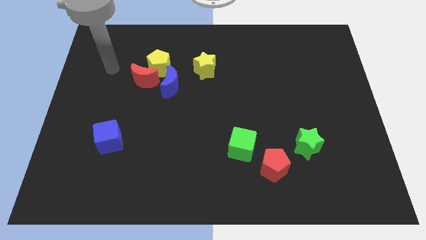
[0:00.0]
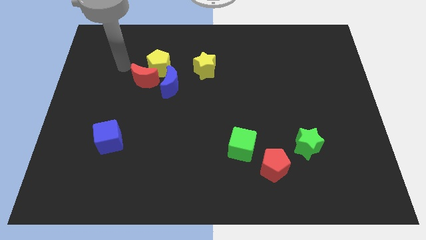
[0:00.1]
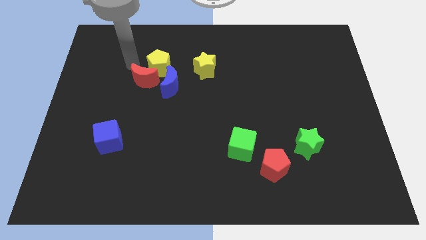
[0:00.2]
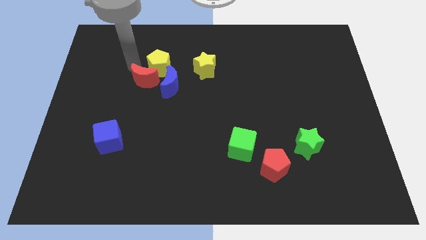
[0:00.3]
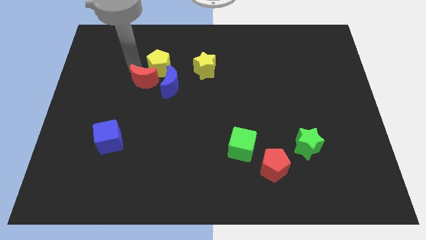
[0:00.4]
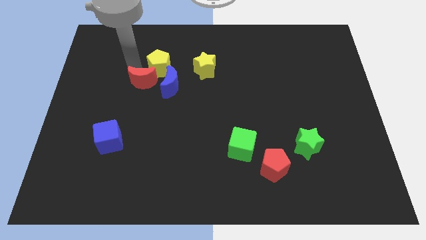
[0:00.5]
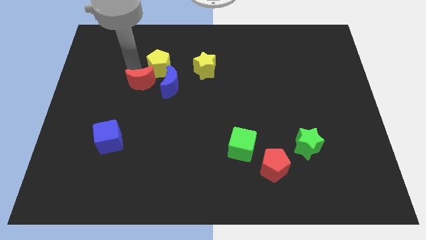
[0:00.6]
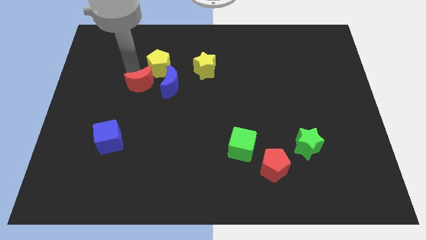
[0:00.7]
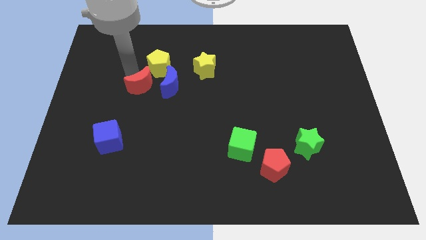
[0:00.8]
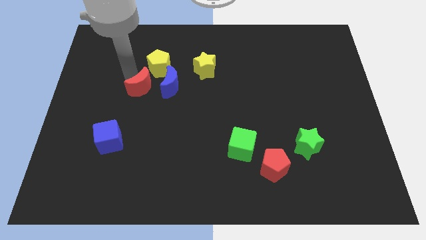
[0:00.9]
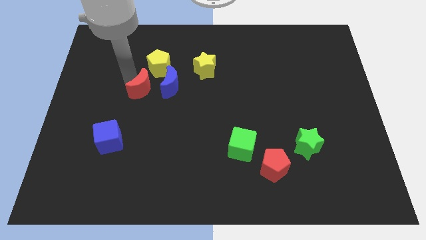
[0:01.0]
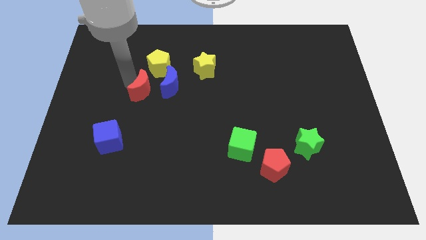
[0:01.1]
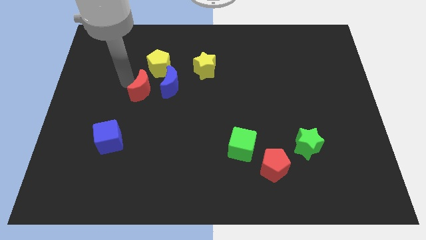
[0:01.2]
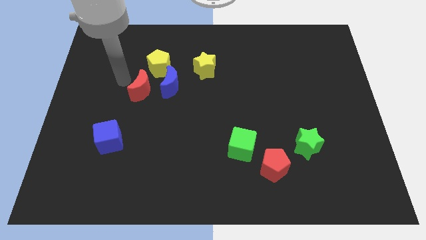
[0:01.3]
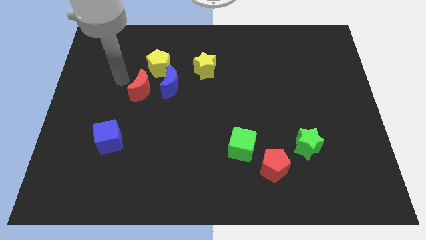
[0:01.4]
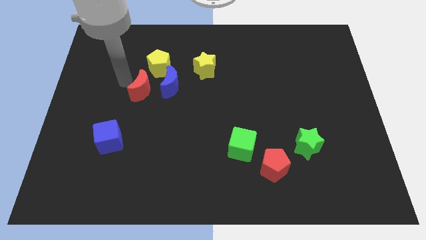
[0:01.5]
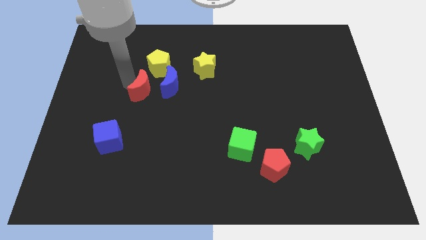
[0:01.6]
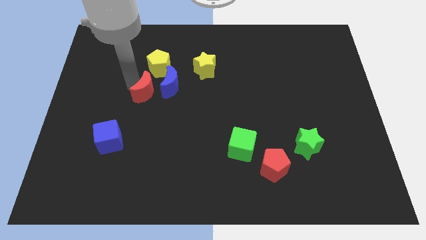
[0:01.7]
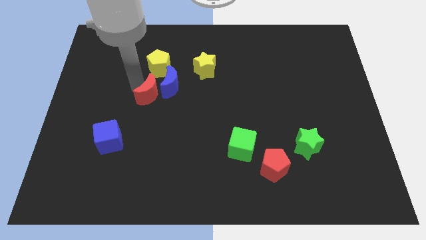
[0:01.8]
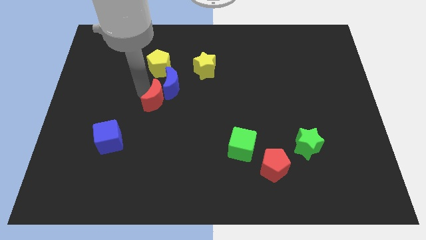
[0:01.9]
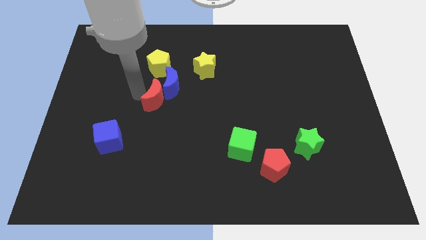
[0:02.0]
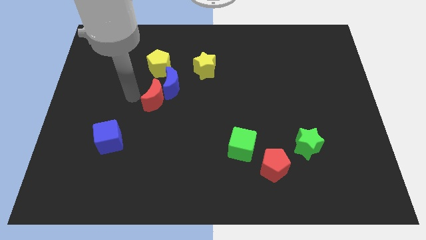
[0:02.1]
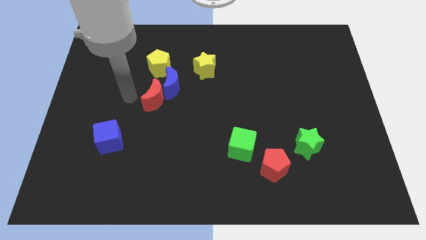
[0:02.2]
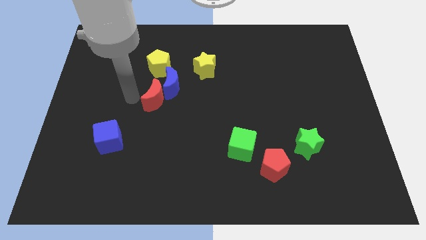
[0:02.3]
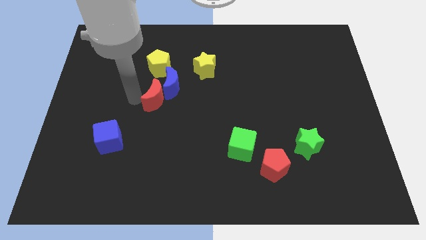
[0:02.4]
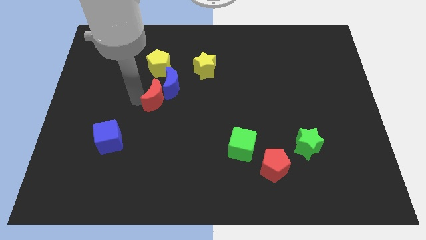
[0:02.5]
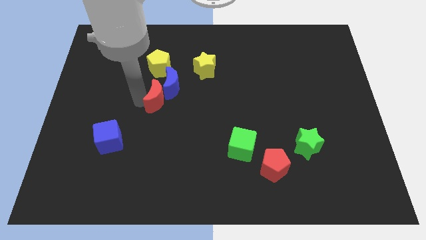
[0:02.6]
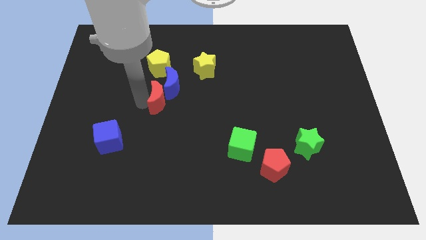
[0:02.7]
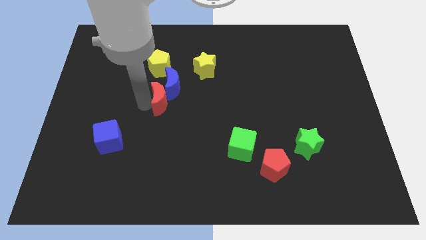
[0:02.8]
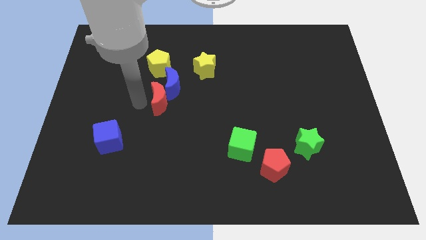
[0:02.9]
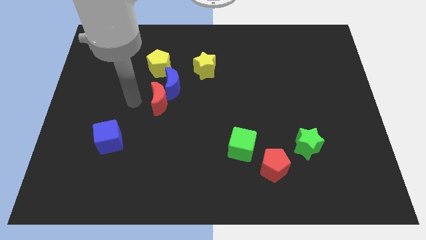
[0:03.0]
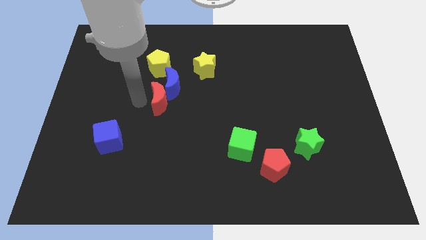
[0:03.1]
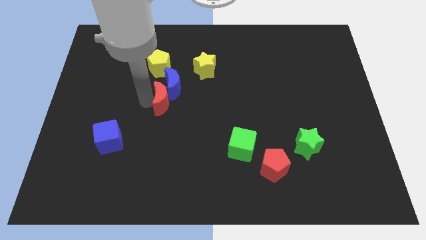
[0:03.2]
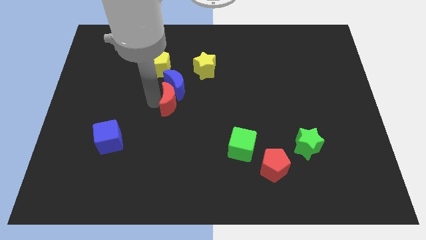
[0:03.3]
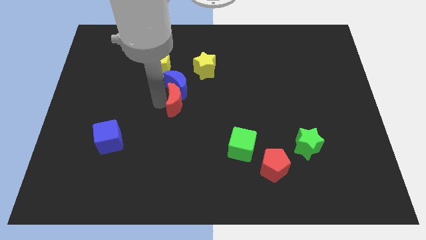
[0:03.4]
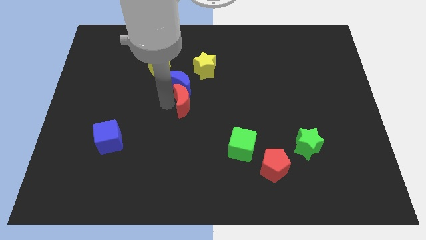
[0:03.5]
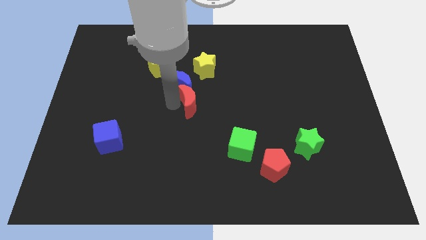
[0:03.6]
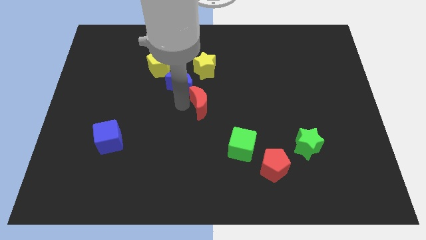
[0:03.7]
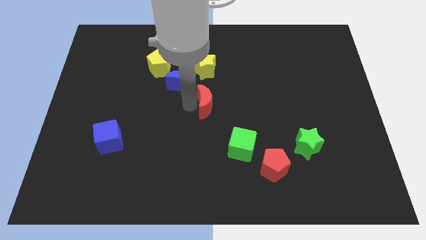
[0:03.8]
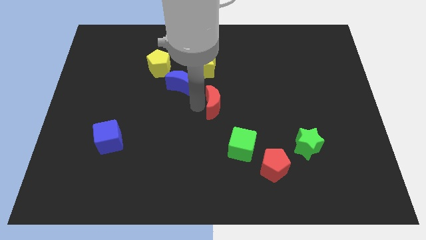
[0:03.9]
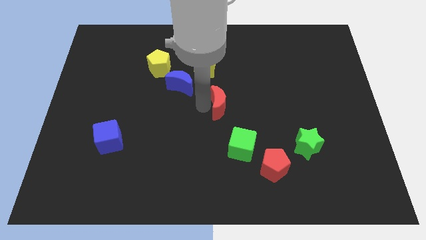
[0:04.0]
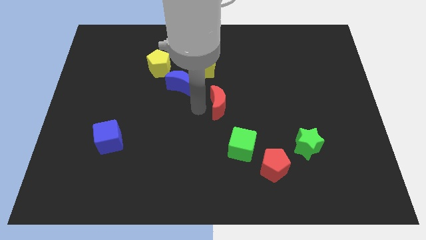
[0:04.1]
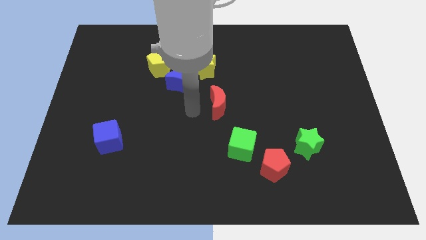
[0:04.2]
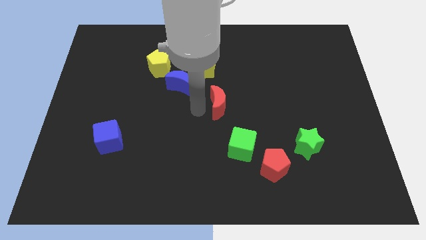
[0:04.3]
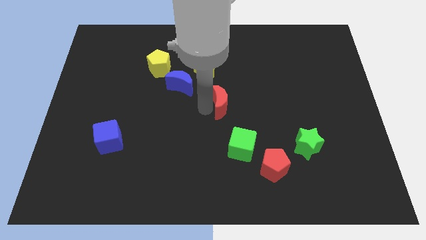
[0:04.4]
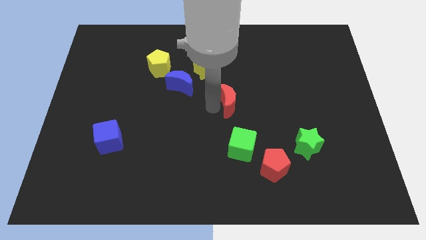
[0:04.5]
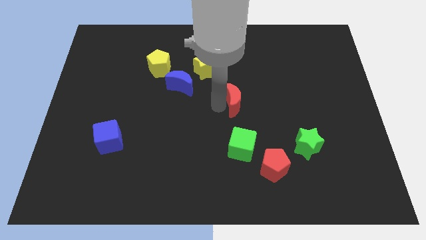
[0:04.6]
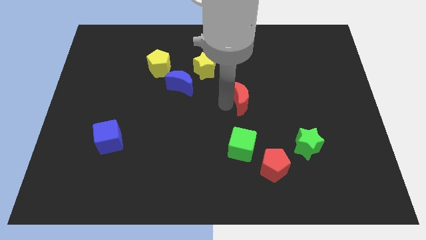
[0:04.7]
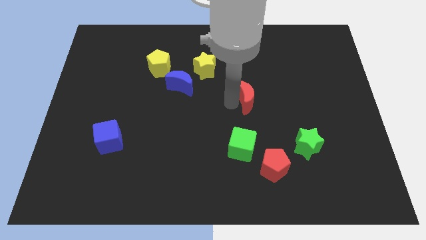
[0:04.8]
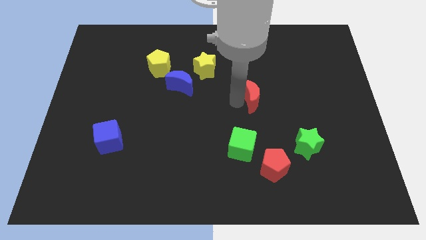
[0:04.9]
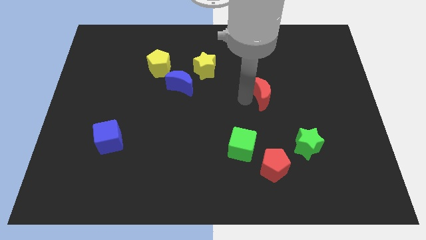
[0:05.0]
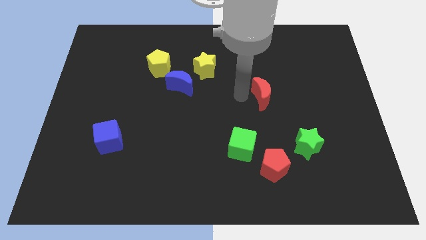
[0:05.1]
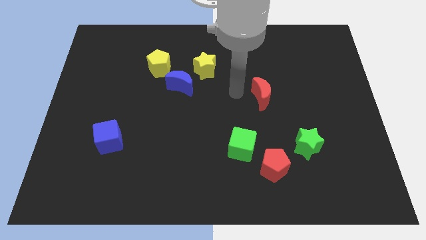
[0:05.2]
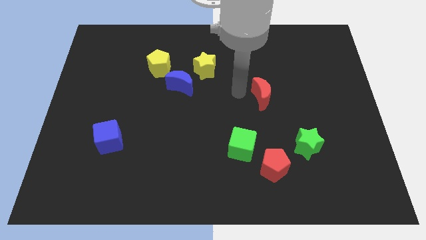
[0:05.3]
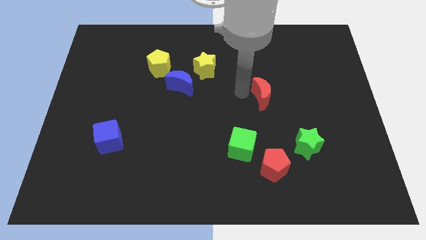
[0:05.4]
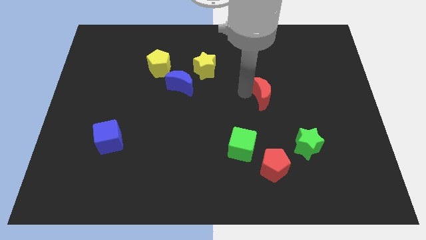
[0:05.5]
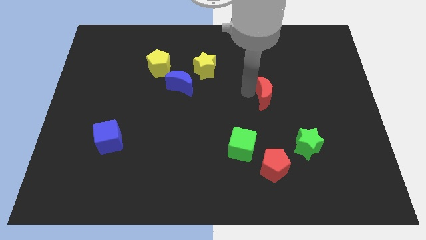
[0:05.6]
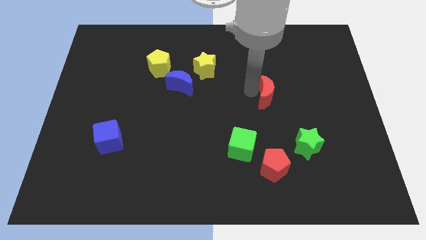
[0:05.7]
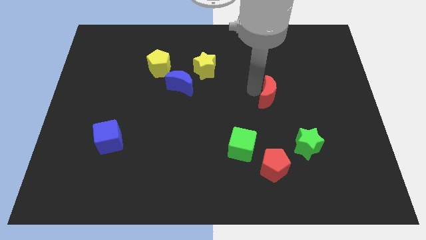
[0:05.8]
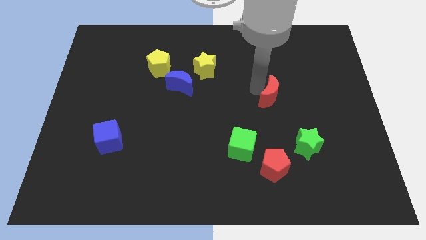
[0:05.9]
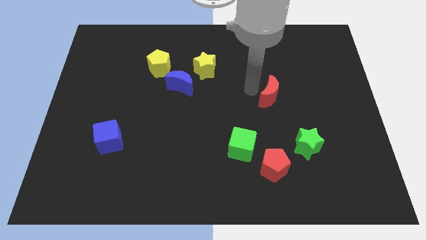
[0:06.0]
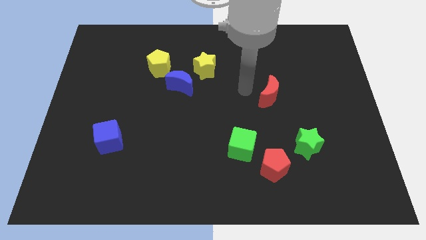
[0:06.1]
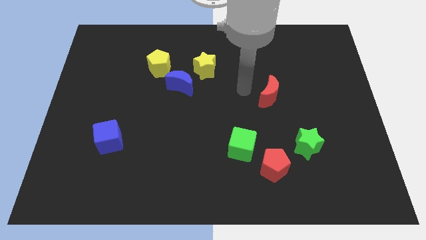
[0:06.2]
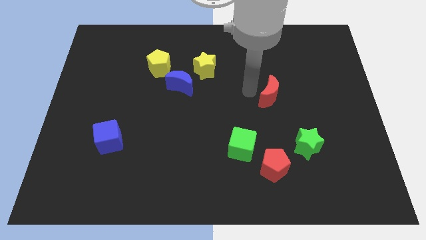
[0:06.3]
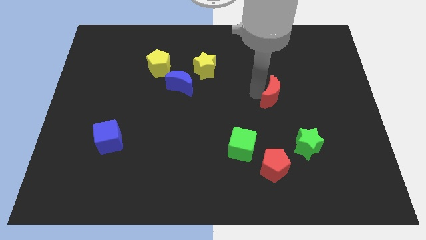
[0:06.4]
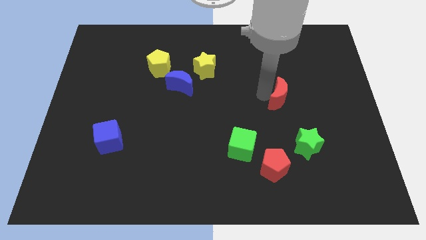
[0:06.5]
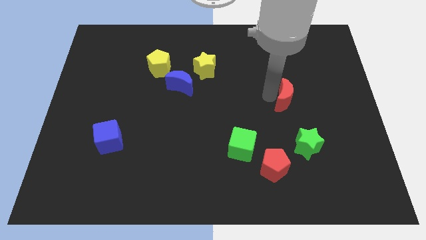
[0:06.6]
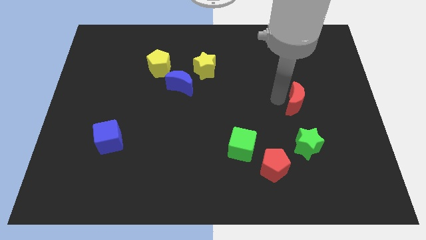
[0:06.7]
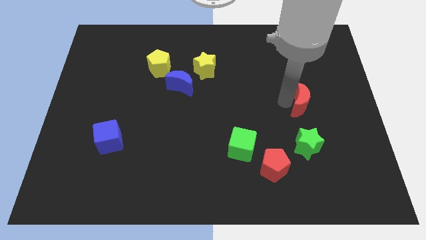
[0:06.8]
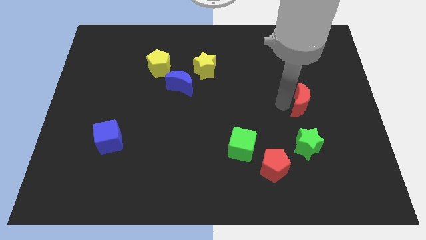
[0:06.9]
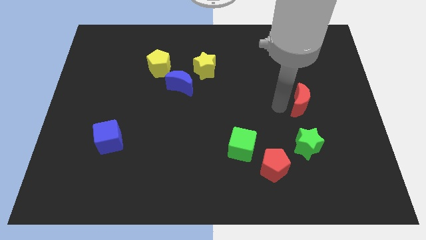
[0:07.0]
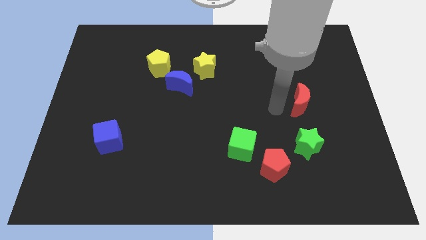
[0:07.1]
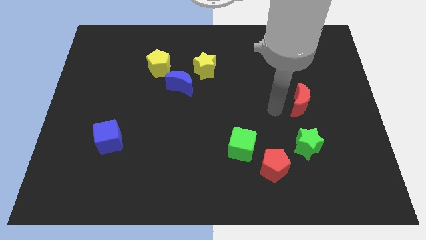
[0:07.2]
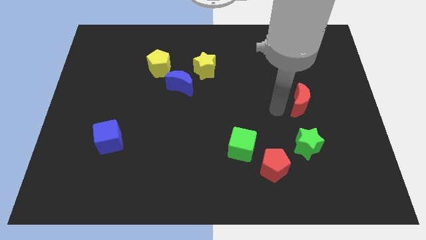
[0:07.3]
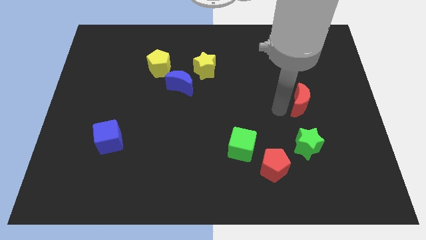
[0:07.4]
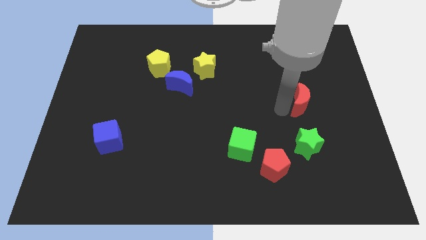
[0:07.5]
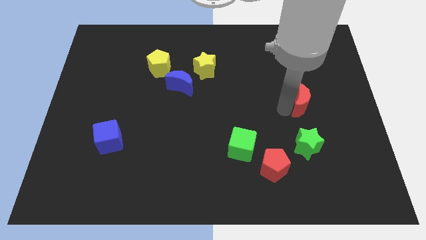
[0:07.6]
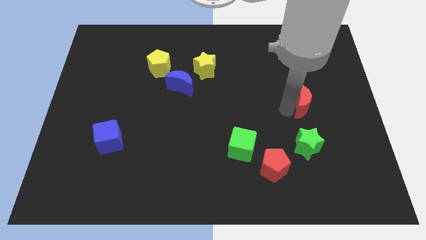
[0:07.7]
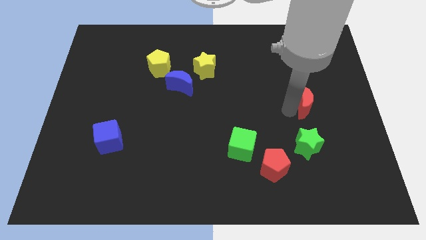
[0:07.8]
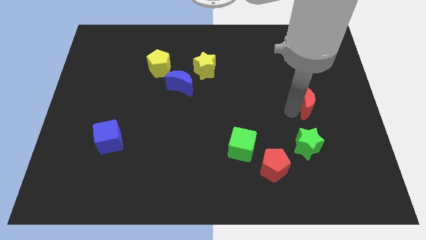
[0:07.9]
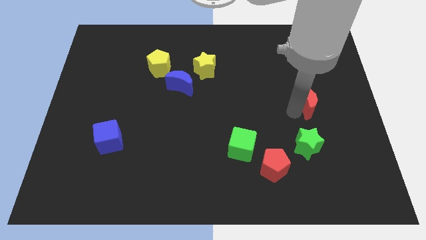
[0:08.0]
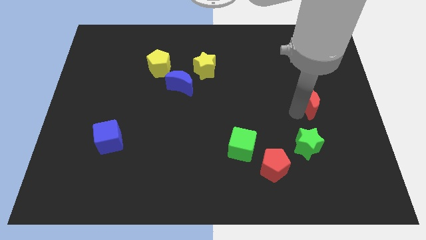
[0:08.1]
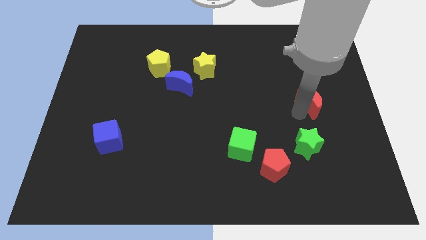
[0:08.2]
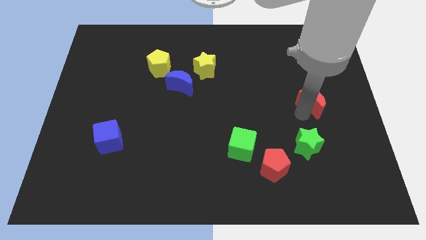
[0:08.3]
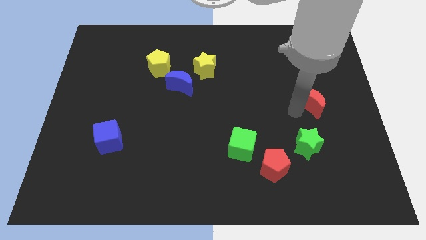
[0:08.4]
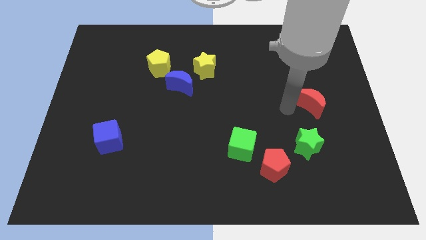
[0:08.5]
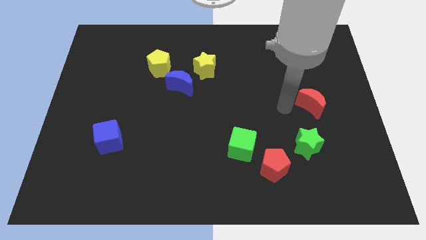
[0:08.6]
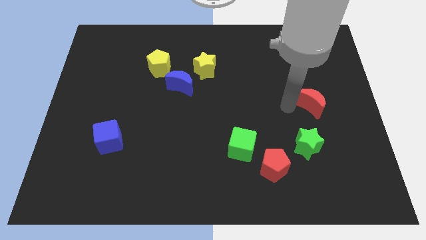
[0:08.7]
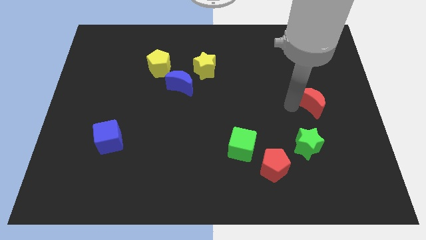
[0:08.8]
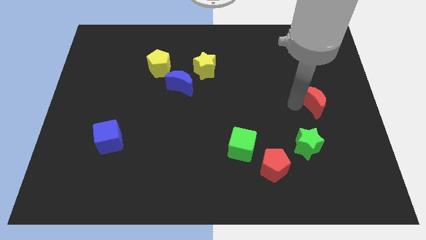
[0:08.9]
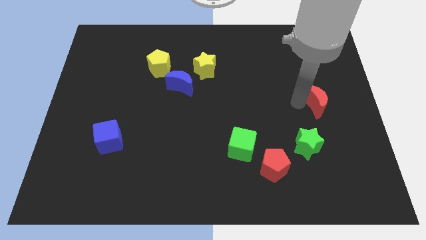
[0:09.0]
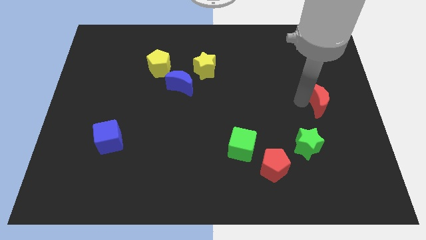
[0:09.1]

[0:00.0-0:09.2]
put the red moon to the center right
